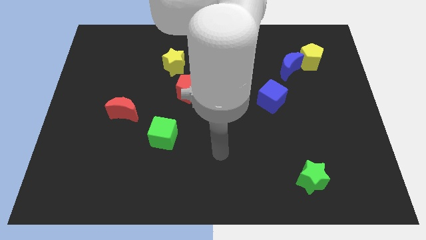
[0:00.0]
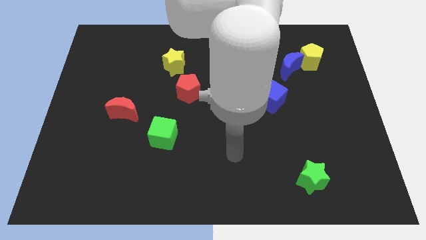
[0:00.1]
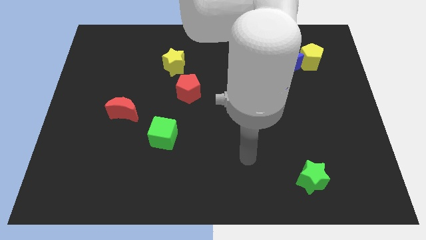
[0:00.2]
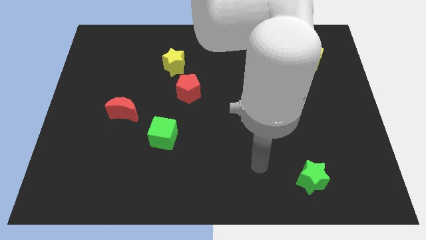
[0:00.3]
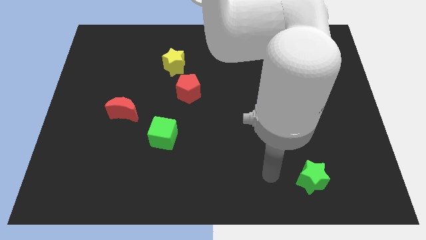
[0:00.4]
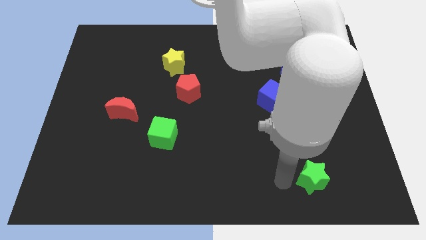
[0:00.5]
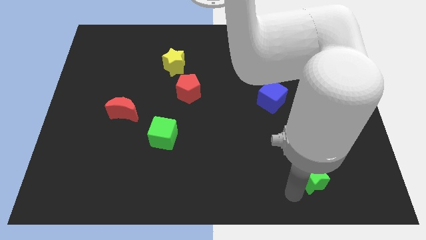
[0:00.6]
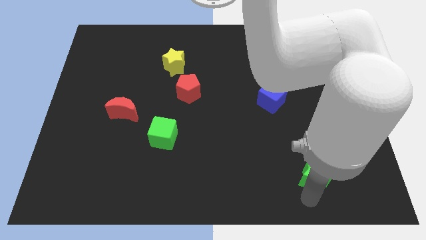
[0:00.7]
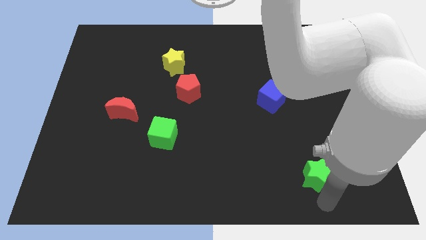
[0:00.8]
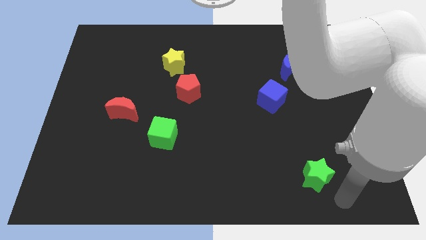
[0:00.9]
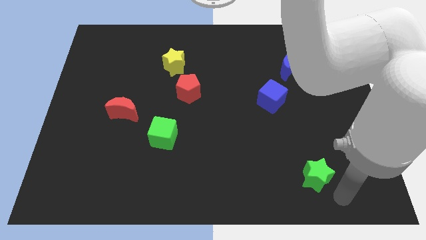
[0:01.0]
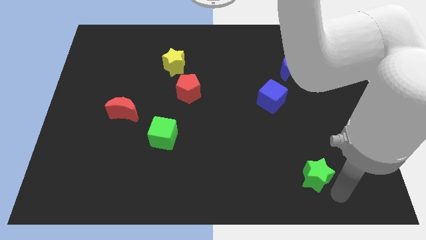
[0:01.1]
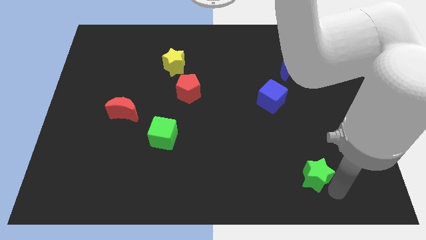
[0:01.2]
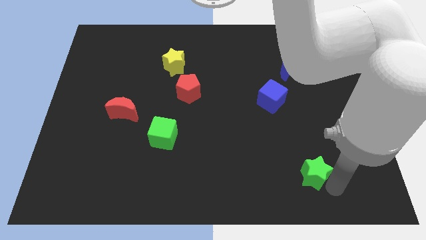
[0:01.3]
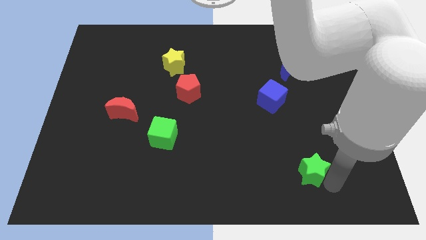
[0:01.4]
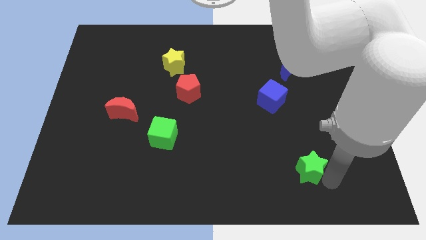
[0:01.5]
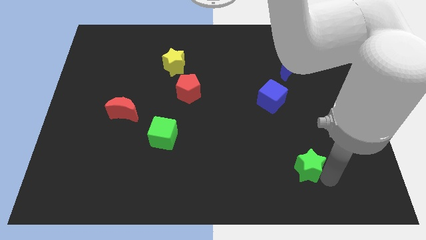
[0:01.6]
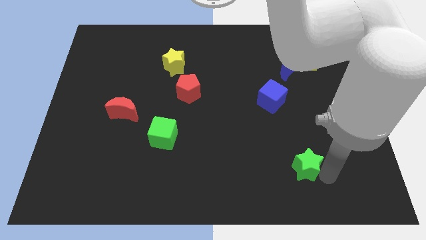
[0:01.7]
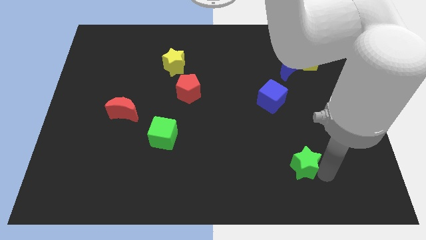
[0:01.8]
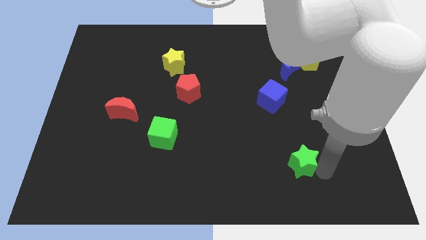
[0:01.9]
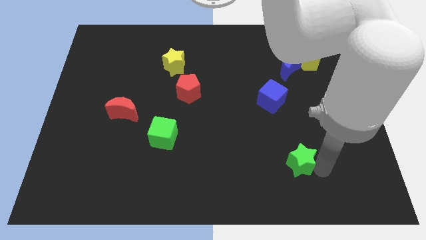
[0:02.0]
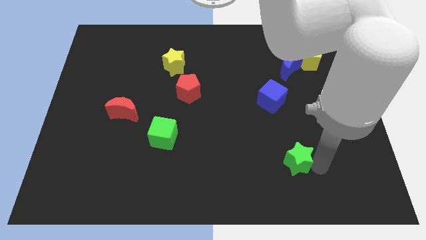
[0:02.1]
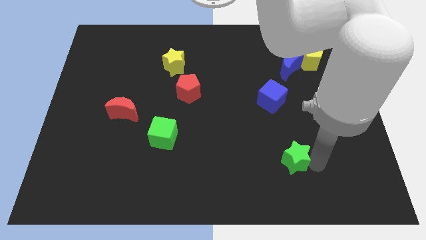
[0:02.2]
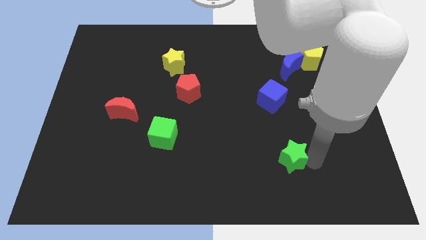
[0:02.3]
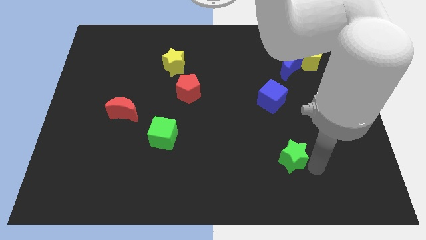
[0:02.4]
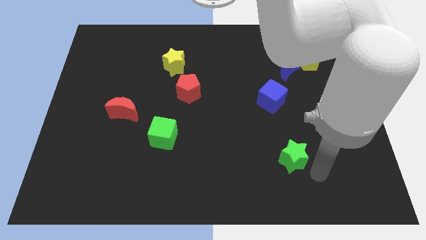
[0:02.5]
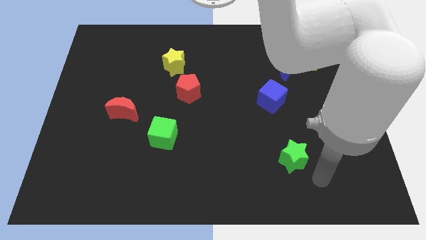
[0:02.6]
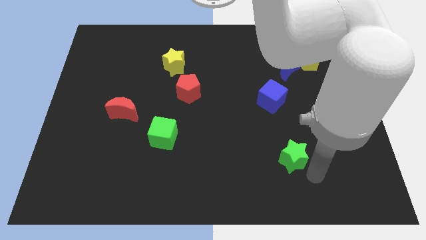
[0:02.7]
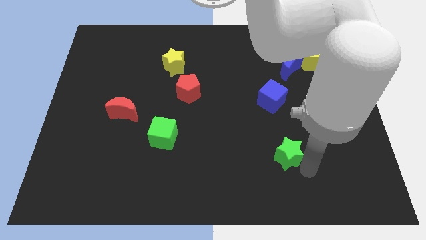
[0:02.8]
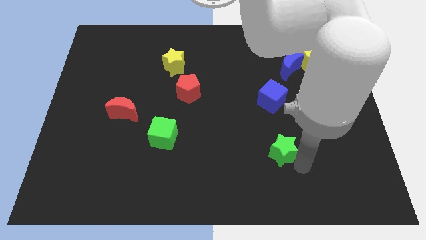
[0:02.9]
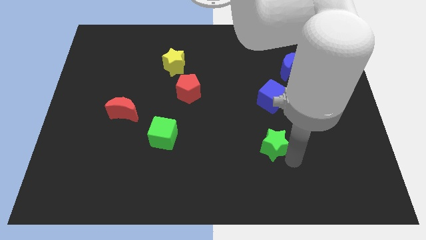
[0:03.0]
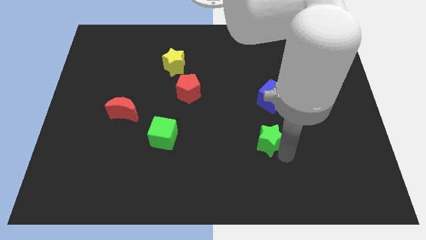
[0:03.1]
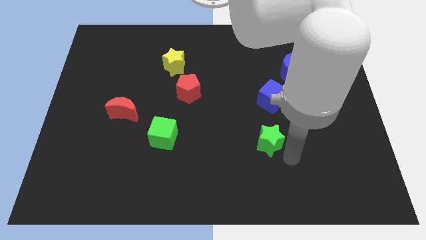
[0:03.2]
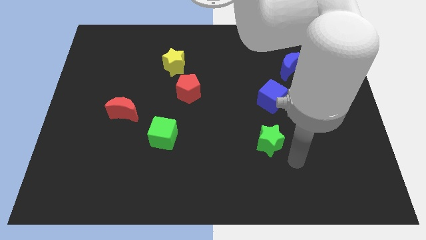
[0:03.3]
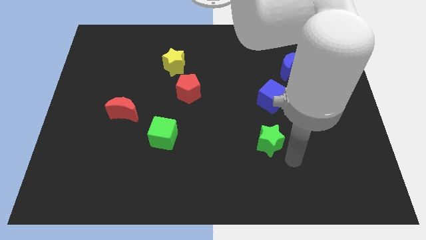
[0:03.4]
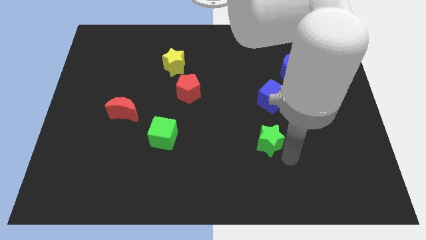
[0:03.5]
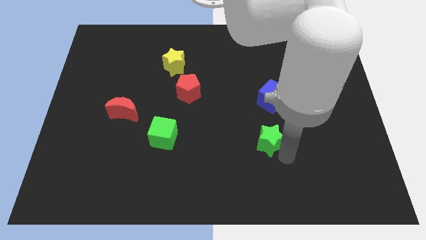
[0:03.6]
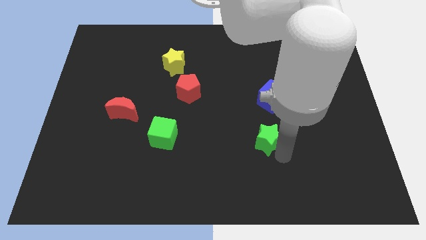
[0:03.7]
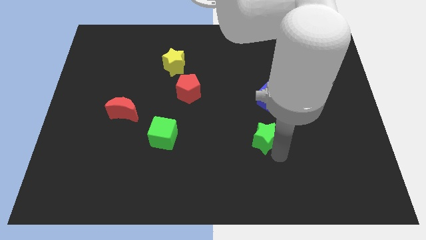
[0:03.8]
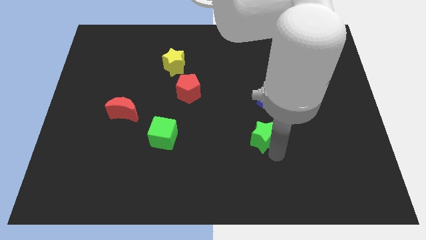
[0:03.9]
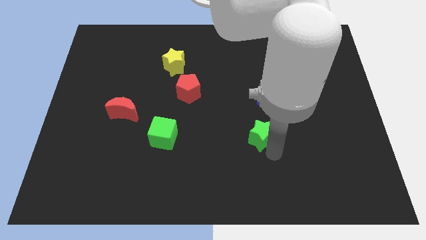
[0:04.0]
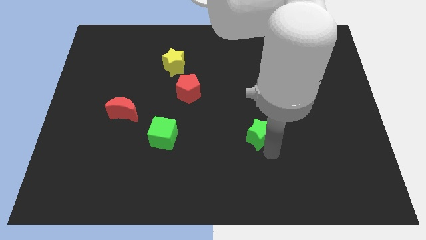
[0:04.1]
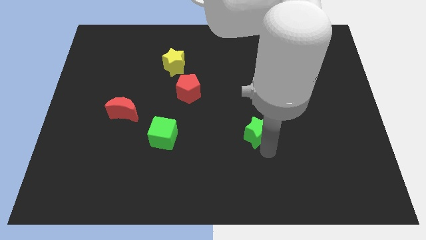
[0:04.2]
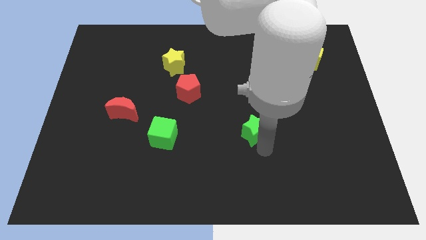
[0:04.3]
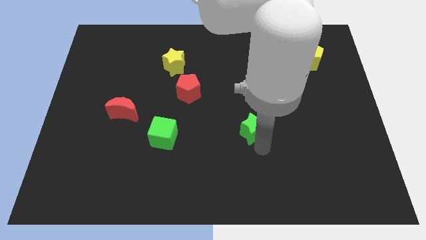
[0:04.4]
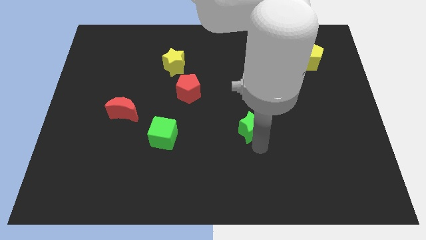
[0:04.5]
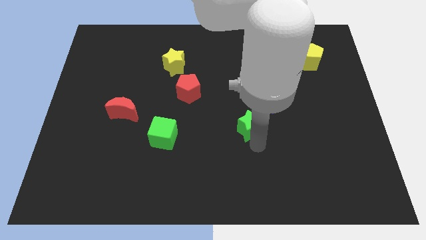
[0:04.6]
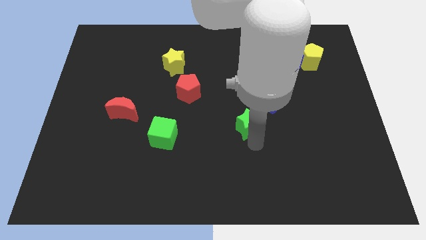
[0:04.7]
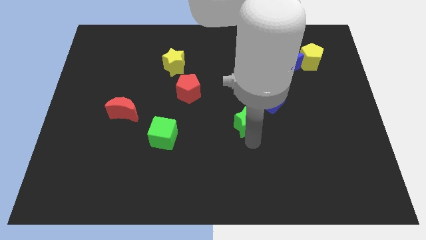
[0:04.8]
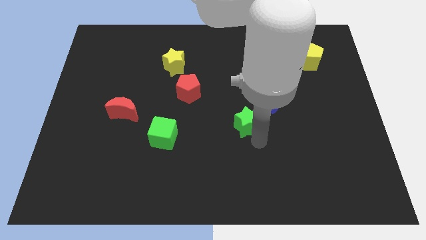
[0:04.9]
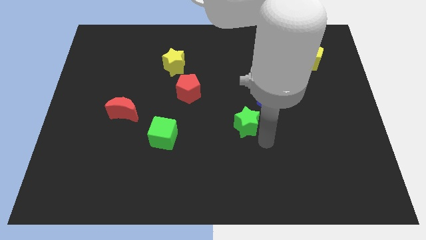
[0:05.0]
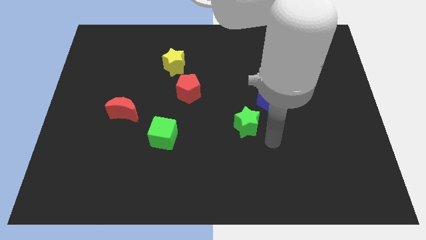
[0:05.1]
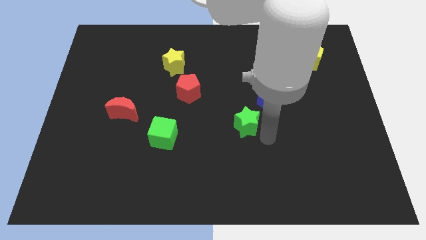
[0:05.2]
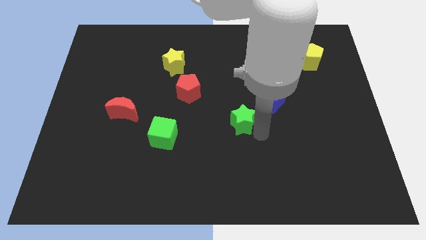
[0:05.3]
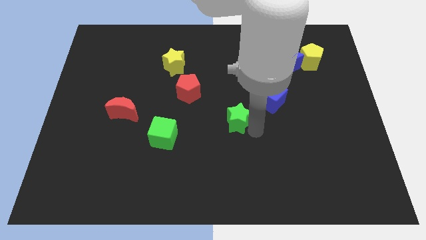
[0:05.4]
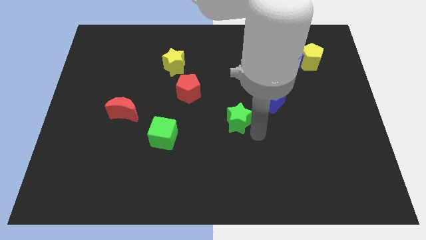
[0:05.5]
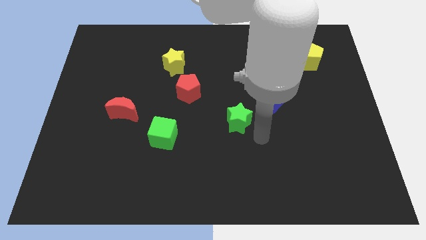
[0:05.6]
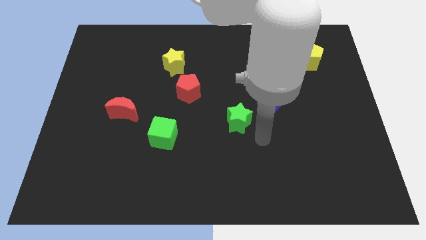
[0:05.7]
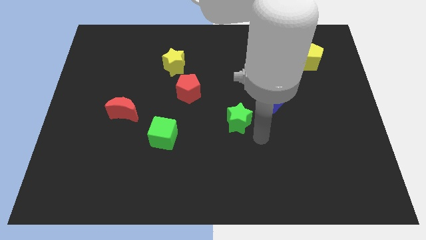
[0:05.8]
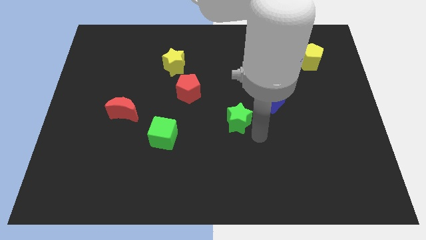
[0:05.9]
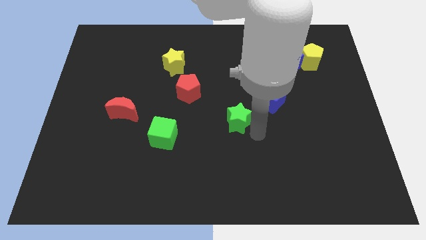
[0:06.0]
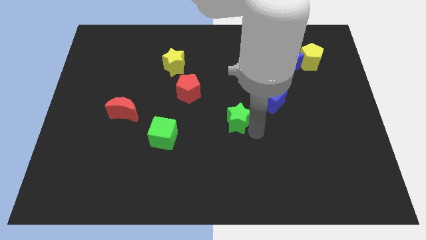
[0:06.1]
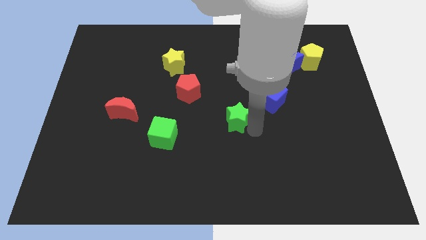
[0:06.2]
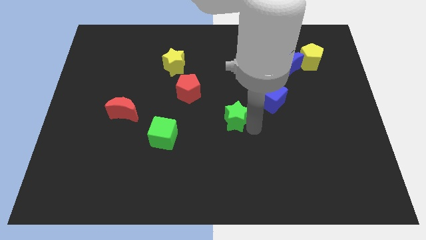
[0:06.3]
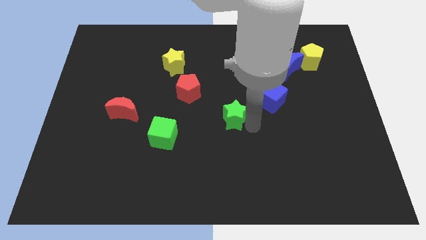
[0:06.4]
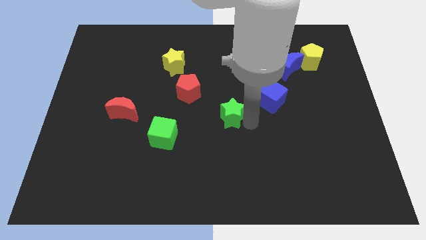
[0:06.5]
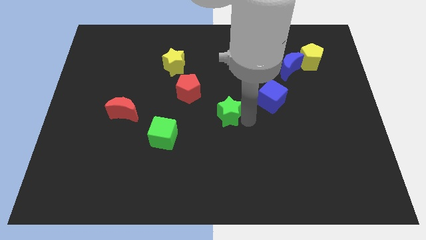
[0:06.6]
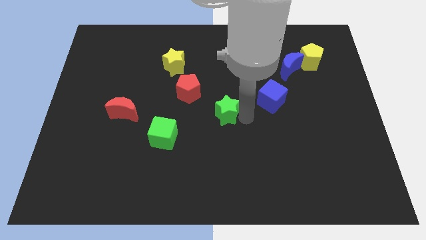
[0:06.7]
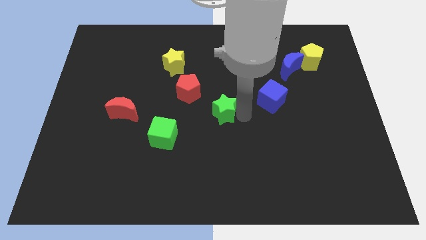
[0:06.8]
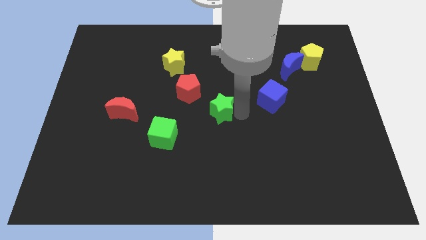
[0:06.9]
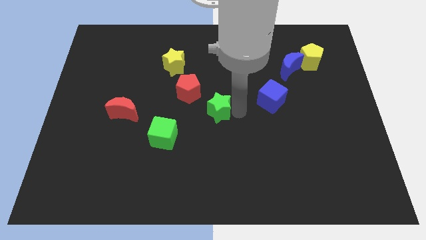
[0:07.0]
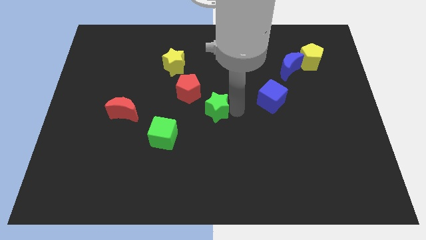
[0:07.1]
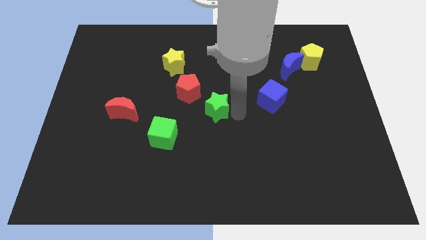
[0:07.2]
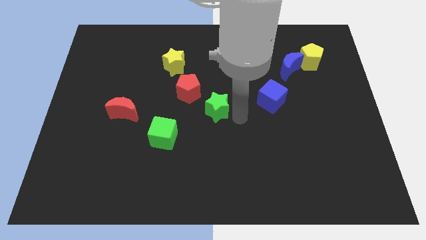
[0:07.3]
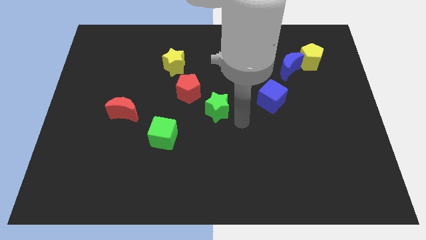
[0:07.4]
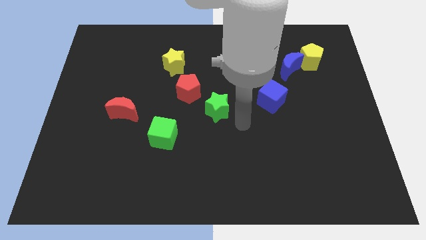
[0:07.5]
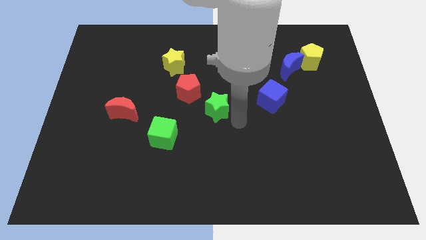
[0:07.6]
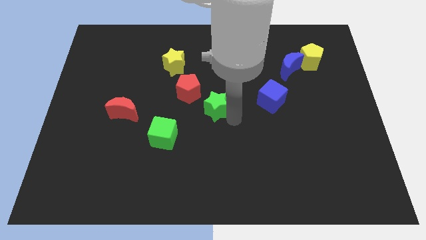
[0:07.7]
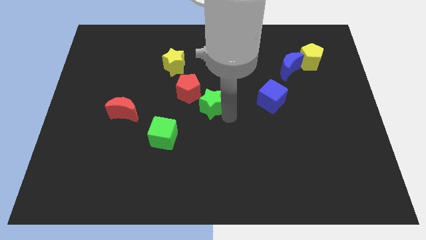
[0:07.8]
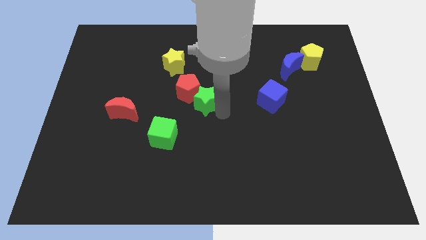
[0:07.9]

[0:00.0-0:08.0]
push the green star towards the red pentagon
